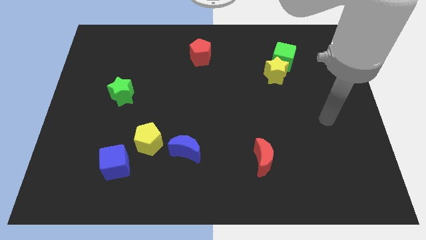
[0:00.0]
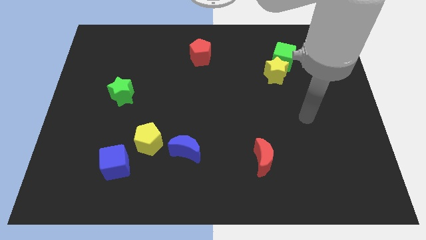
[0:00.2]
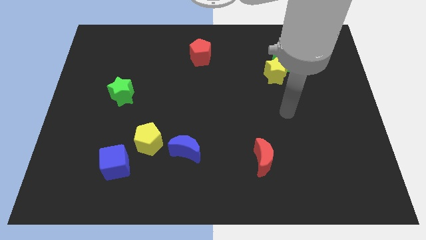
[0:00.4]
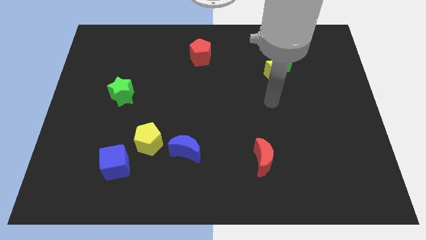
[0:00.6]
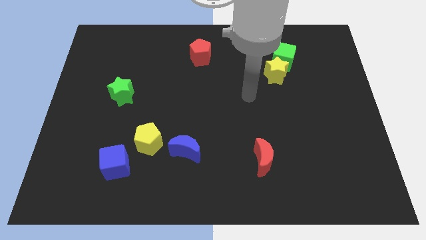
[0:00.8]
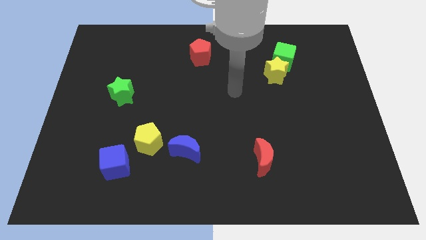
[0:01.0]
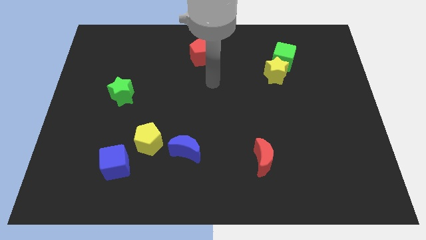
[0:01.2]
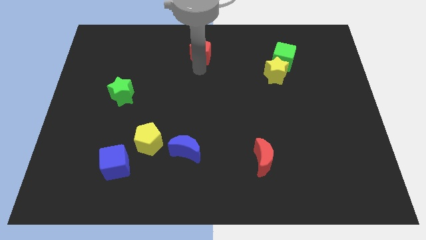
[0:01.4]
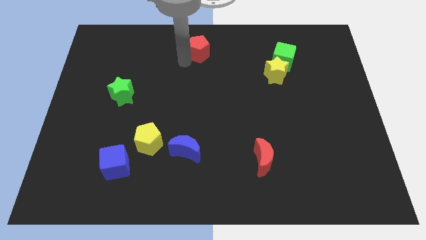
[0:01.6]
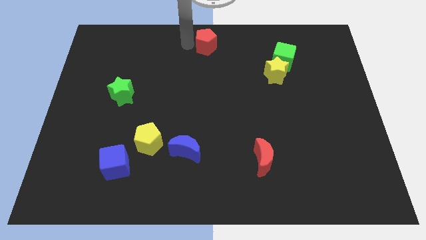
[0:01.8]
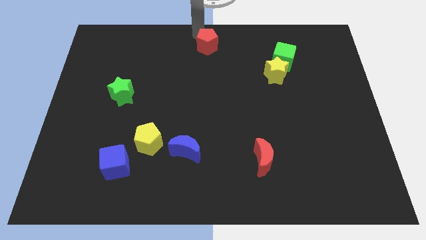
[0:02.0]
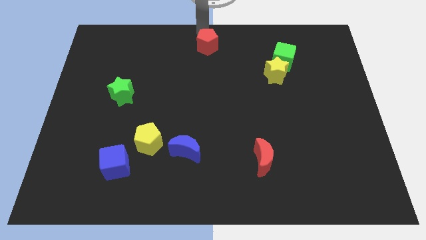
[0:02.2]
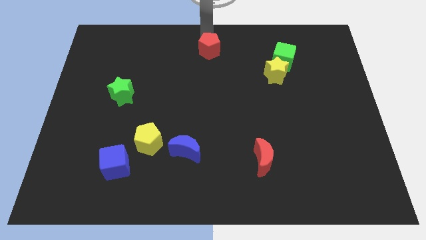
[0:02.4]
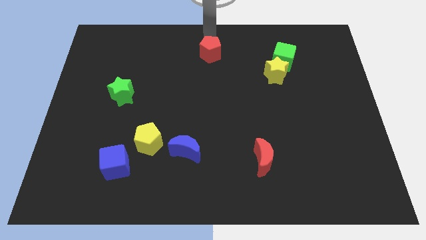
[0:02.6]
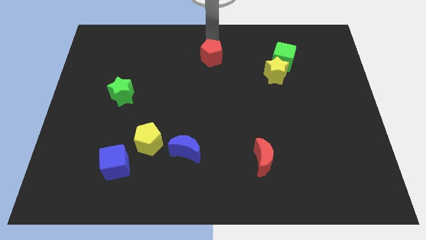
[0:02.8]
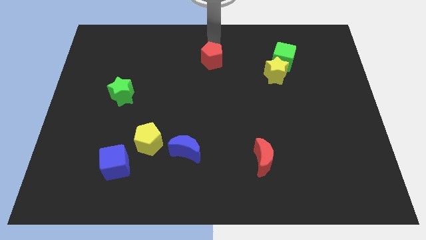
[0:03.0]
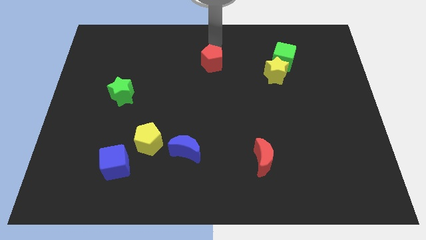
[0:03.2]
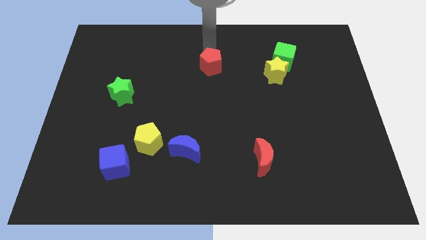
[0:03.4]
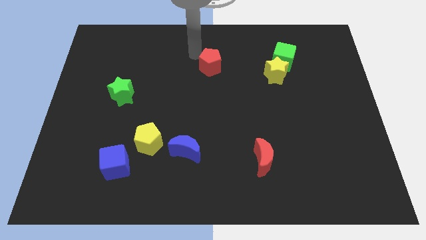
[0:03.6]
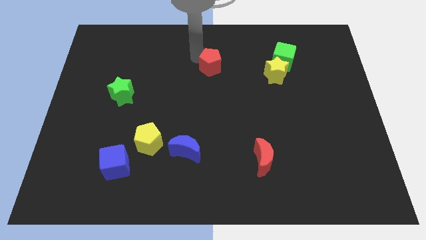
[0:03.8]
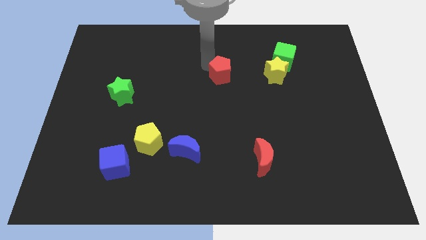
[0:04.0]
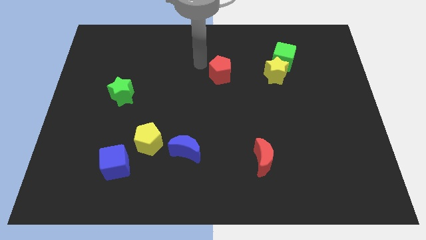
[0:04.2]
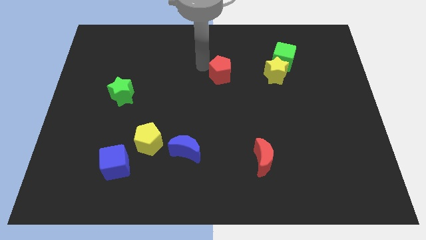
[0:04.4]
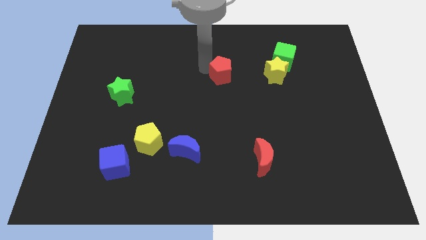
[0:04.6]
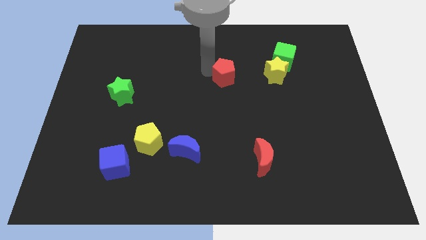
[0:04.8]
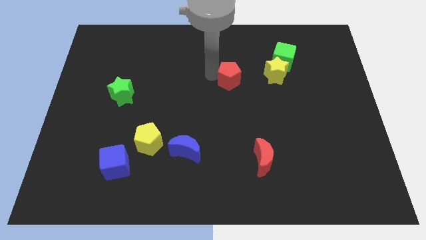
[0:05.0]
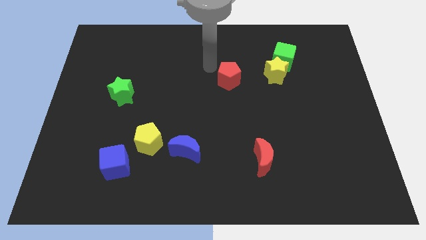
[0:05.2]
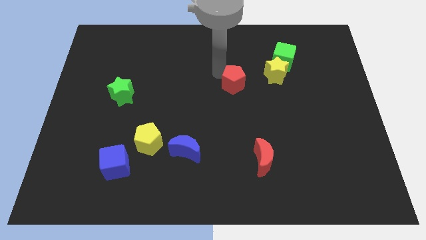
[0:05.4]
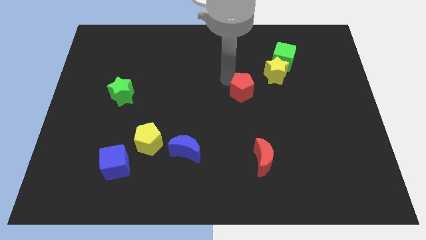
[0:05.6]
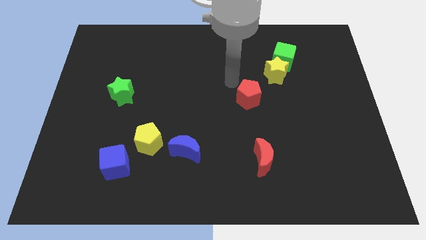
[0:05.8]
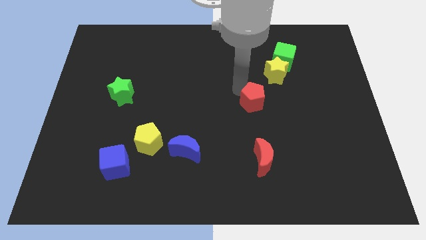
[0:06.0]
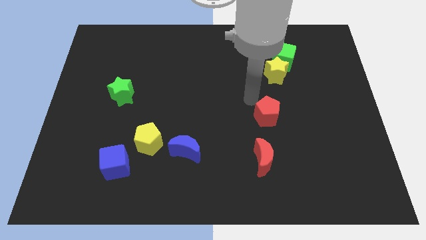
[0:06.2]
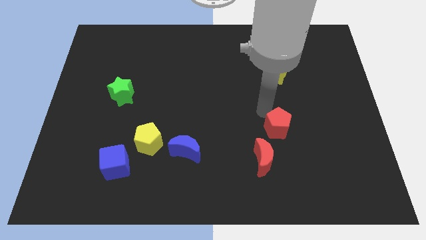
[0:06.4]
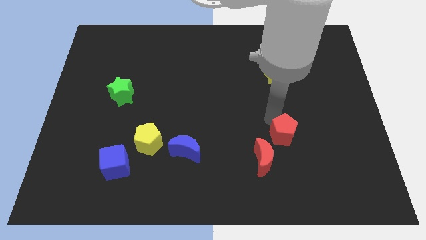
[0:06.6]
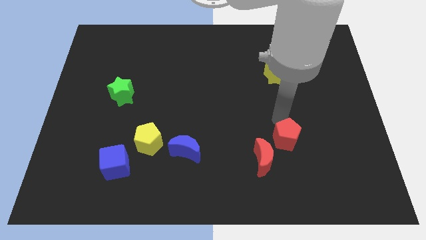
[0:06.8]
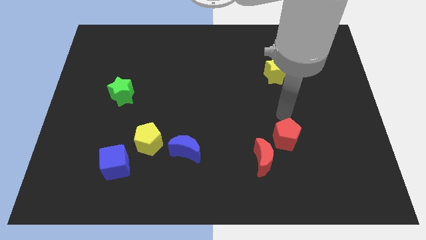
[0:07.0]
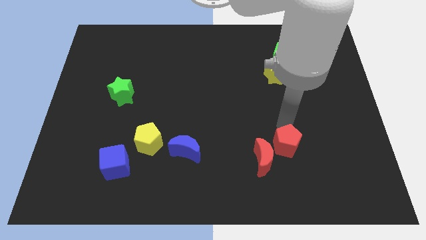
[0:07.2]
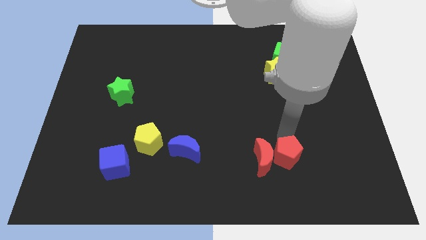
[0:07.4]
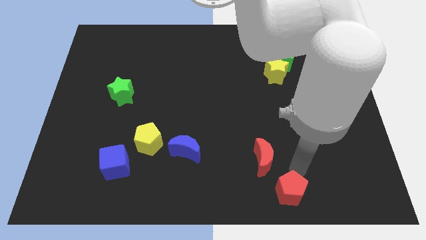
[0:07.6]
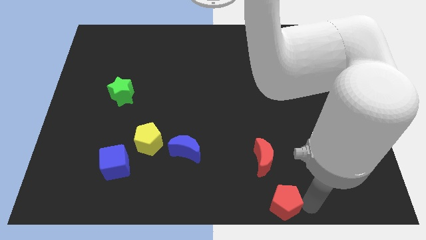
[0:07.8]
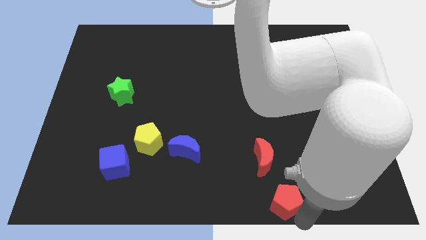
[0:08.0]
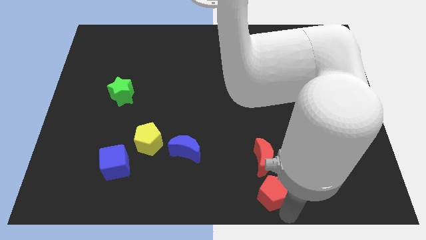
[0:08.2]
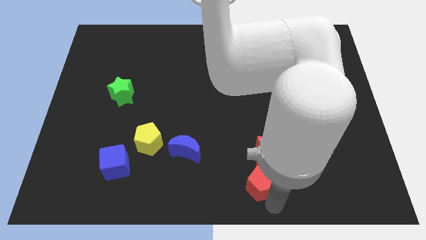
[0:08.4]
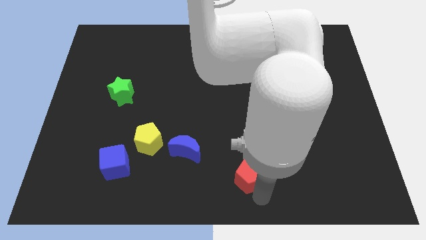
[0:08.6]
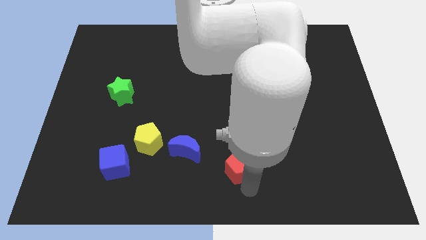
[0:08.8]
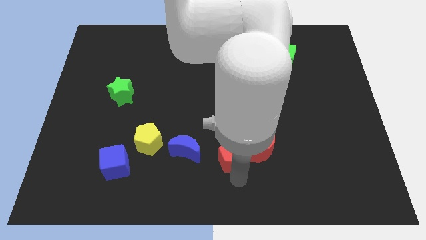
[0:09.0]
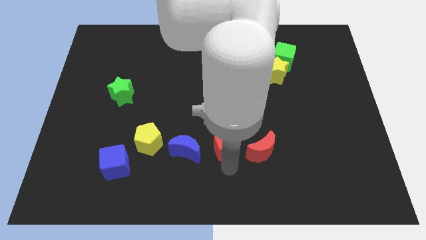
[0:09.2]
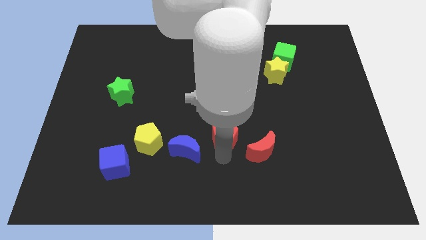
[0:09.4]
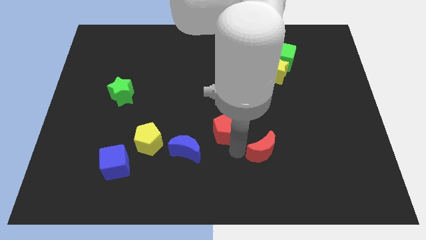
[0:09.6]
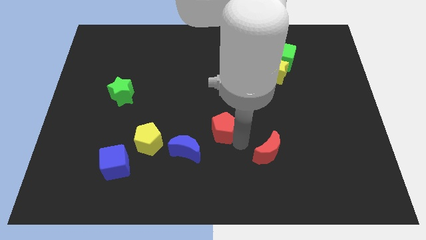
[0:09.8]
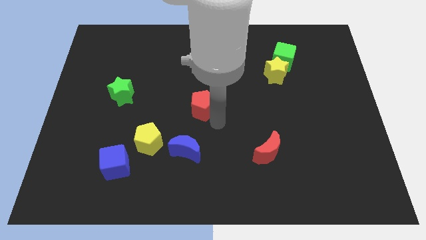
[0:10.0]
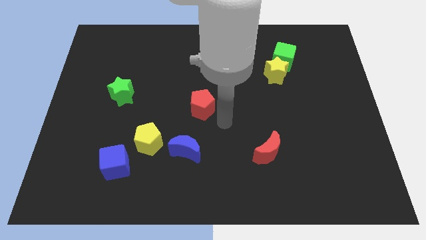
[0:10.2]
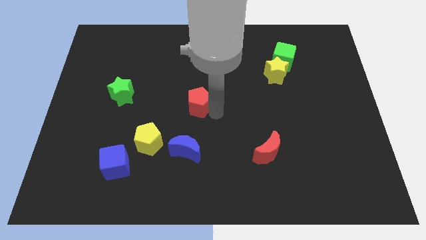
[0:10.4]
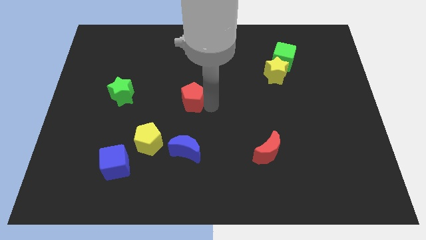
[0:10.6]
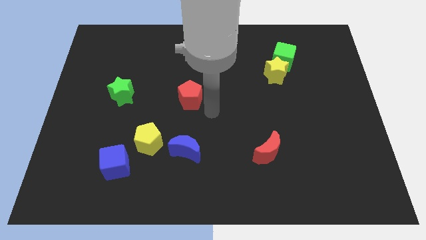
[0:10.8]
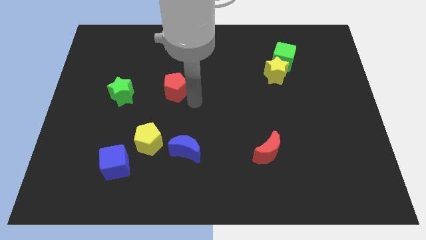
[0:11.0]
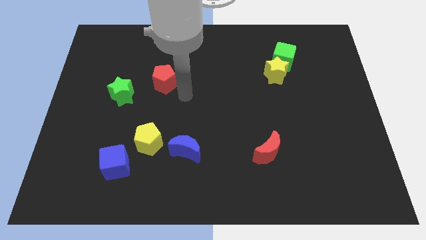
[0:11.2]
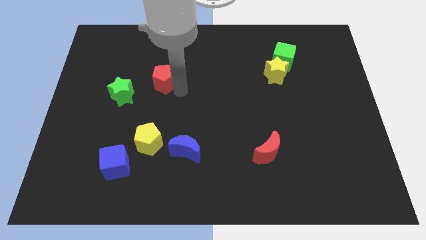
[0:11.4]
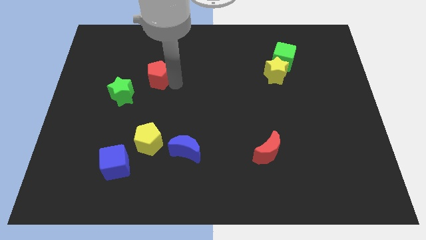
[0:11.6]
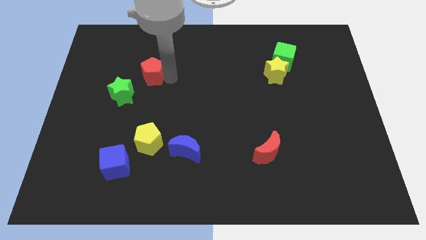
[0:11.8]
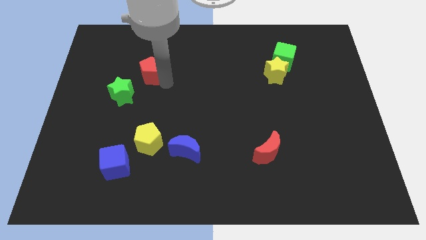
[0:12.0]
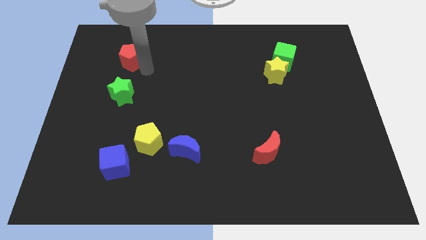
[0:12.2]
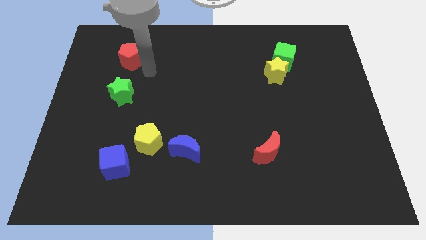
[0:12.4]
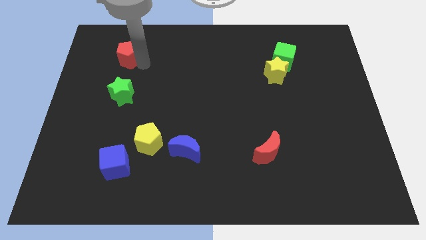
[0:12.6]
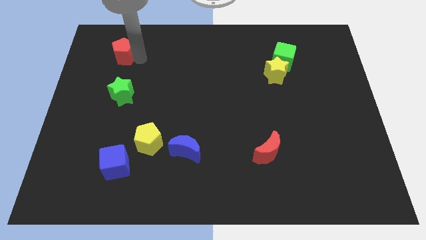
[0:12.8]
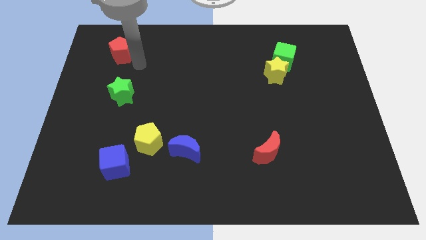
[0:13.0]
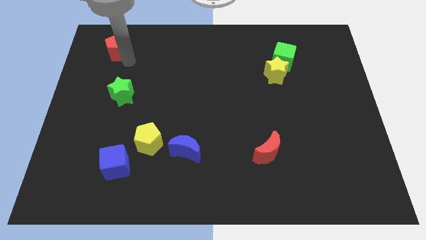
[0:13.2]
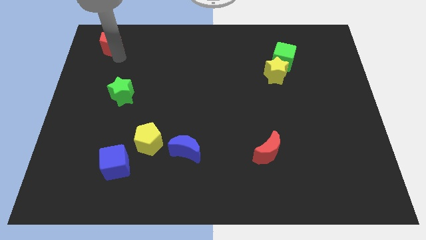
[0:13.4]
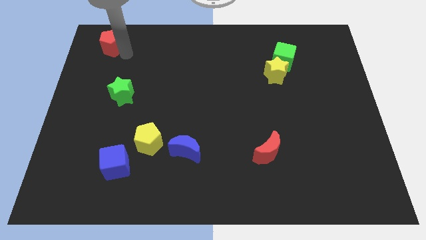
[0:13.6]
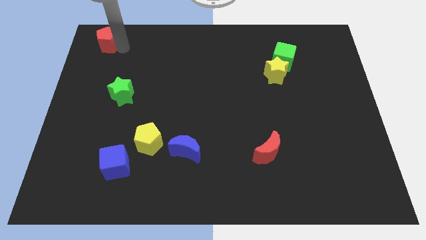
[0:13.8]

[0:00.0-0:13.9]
slide the red pentagon to the upper left corner
